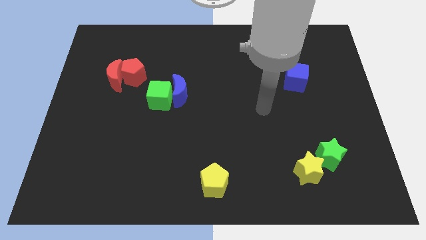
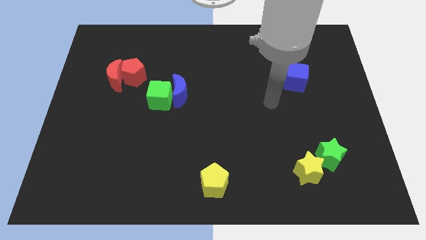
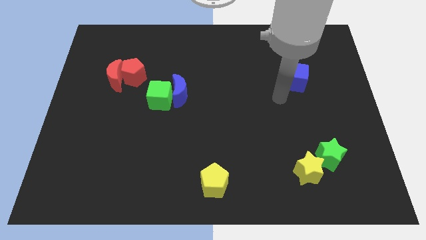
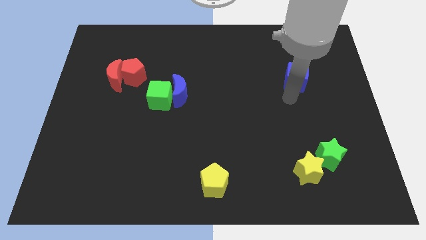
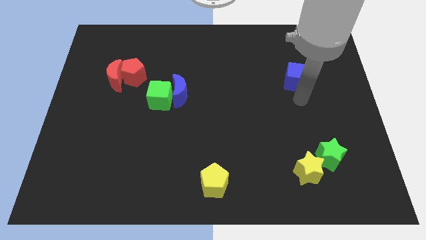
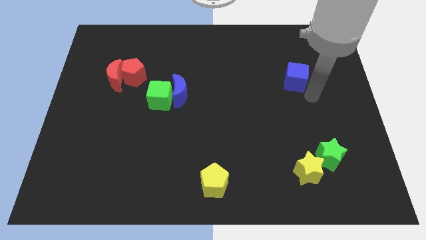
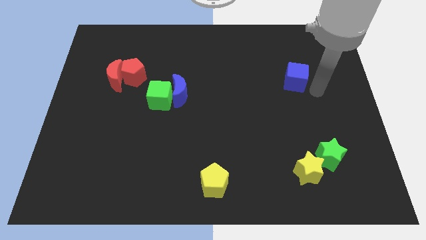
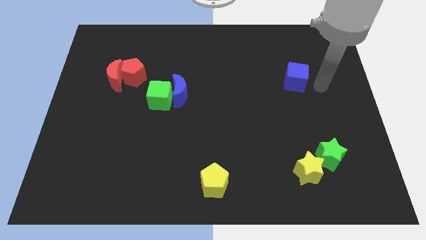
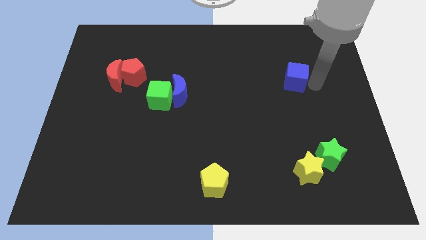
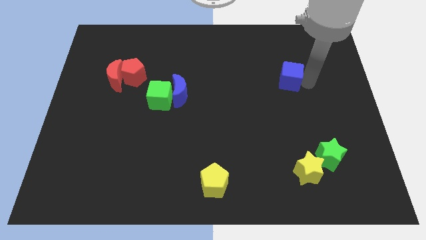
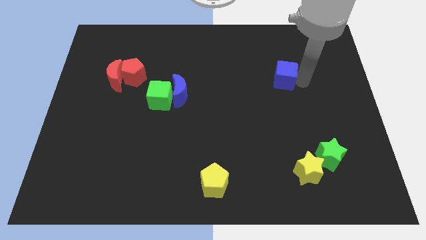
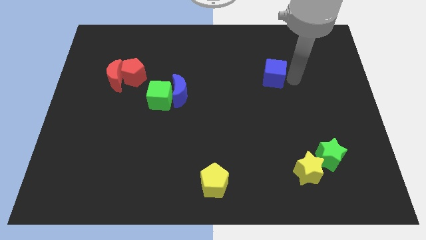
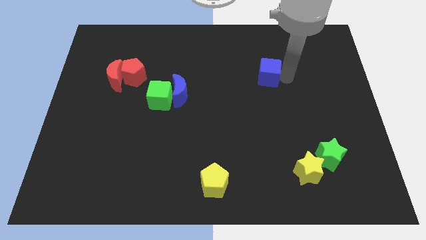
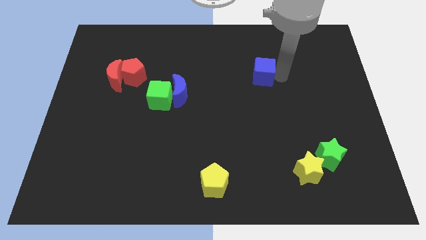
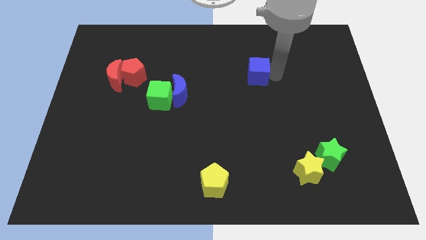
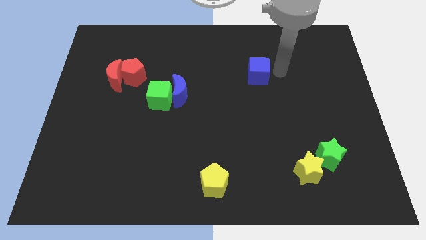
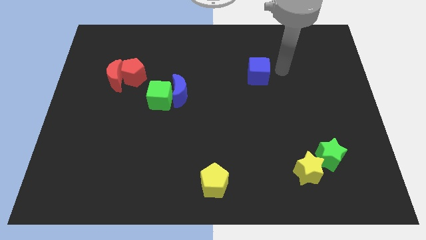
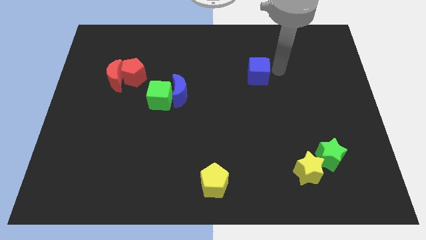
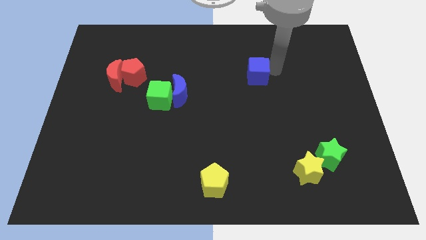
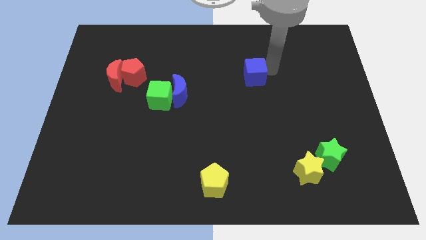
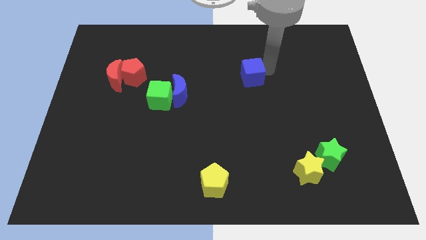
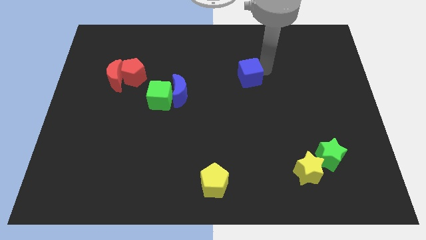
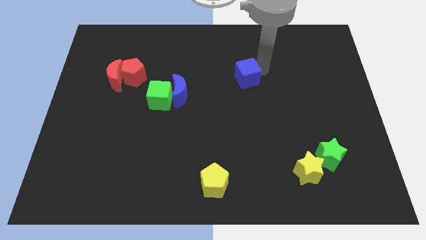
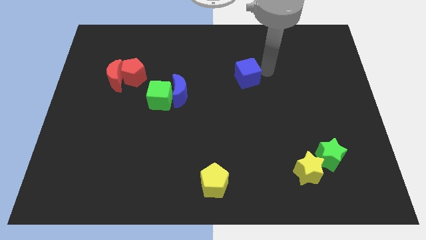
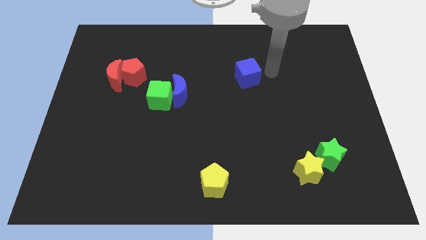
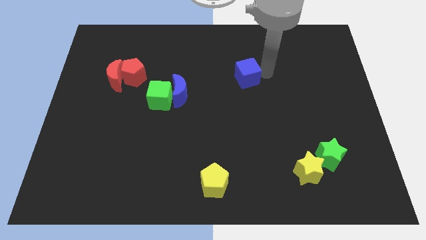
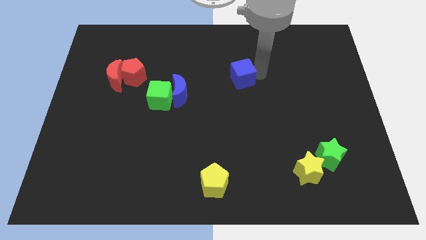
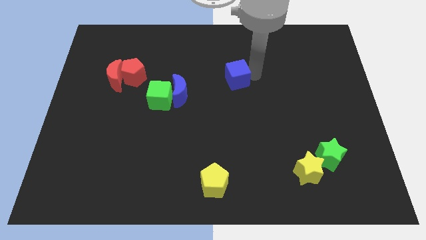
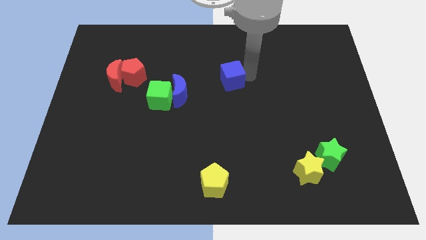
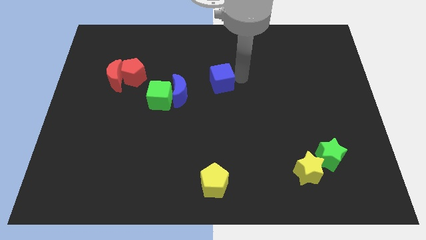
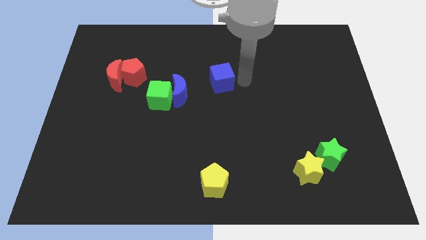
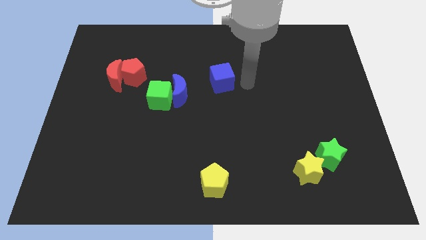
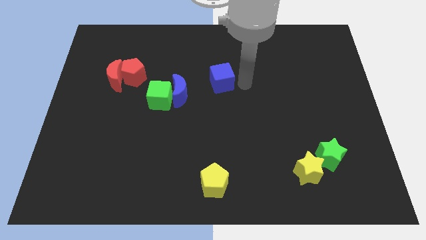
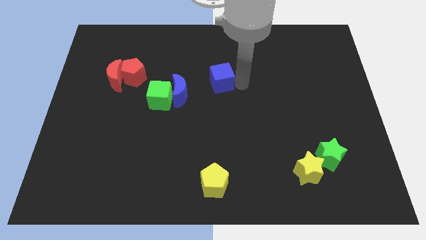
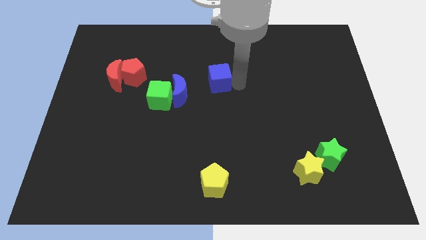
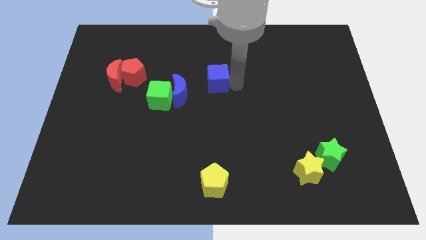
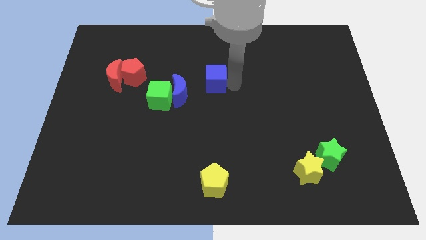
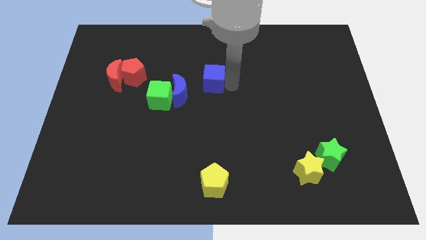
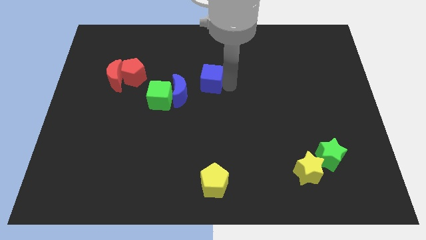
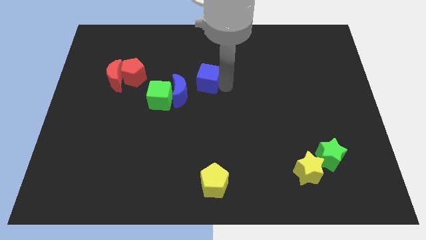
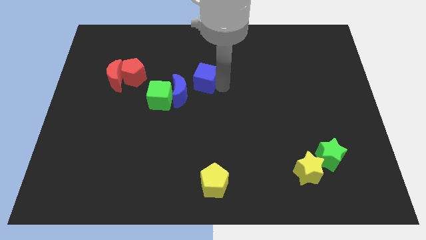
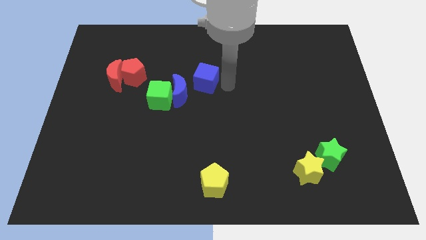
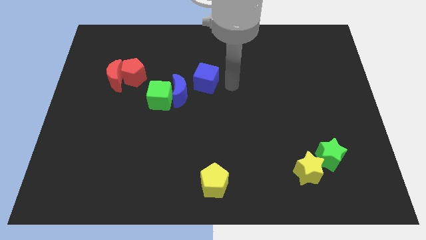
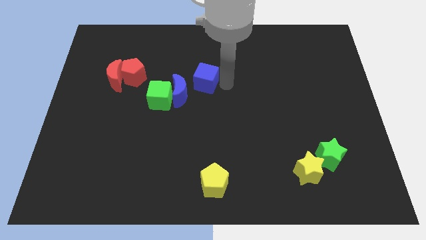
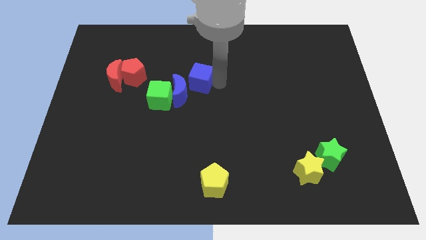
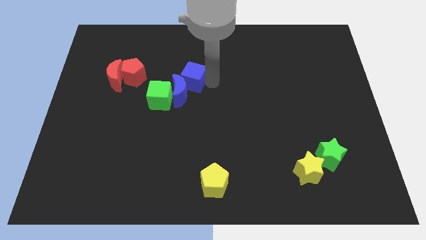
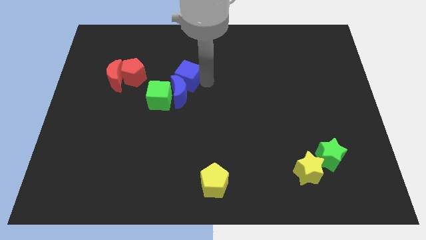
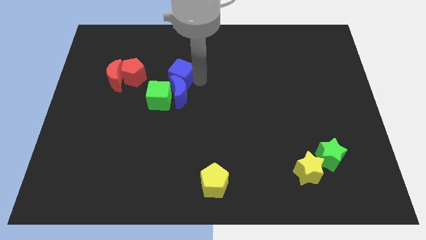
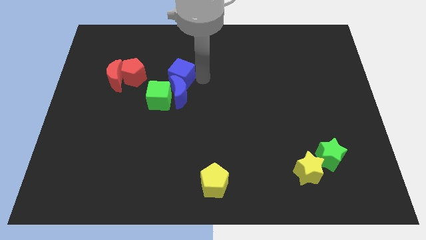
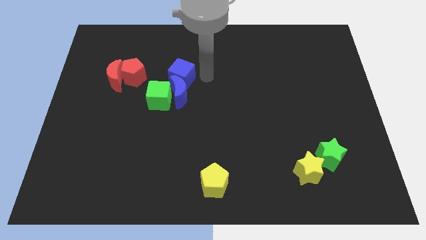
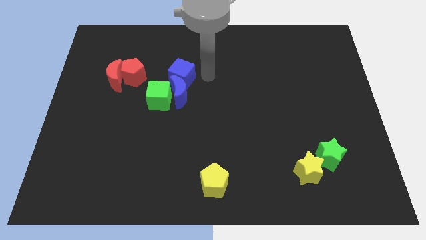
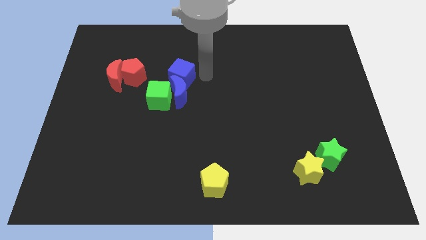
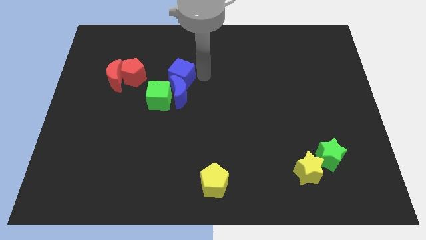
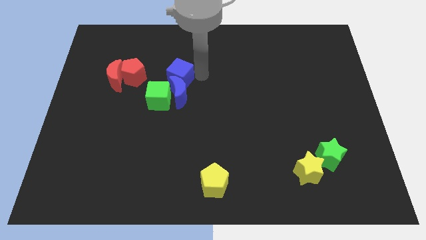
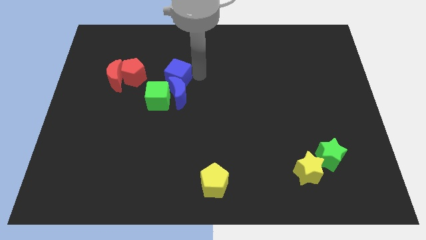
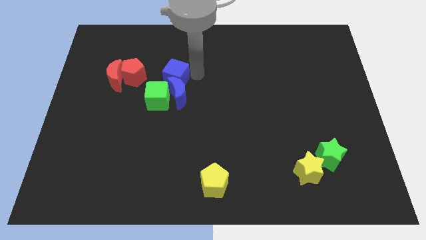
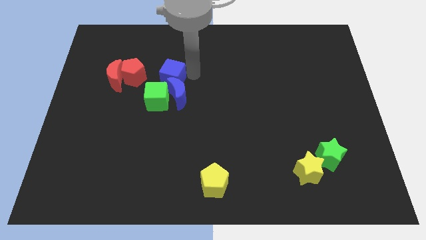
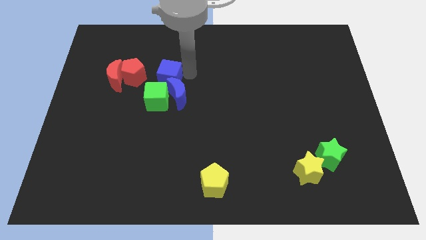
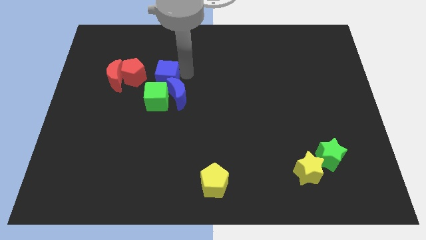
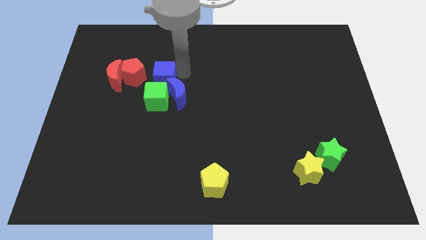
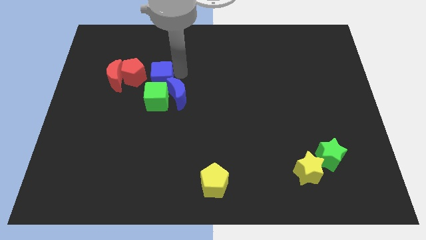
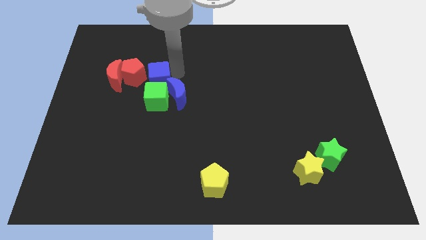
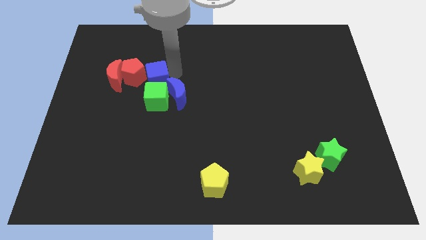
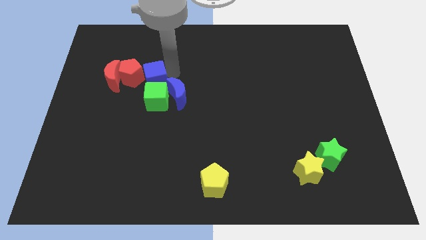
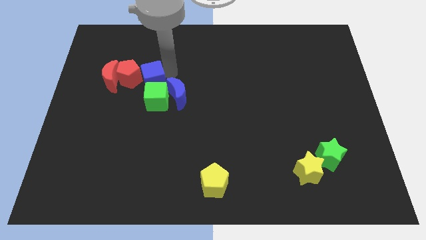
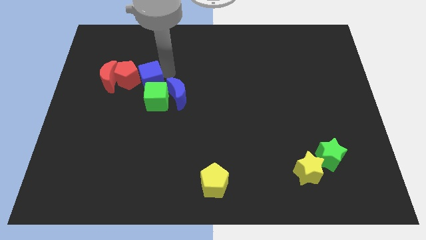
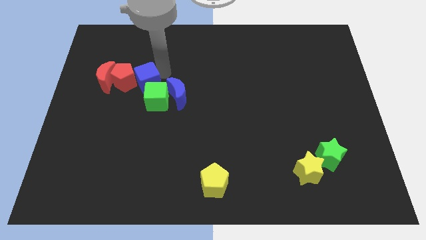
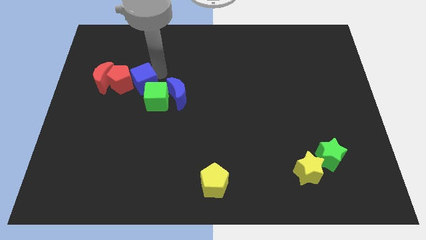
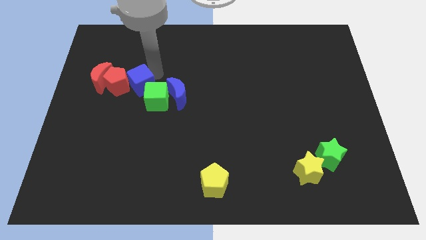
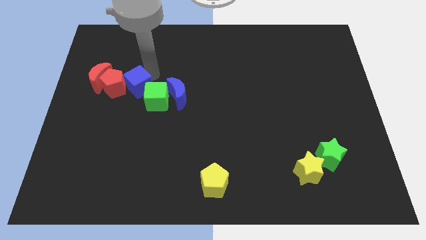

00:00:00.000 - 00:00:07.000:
put the blue cube to the left side of the green cube

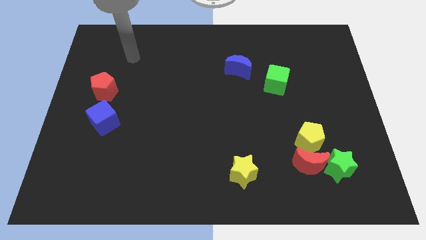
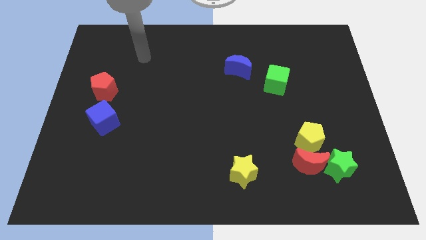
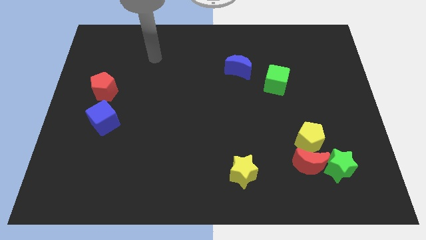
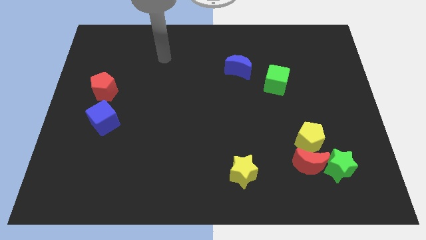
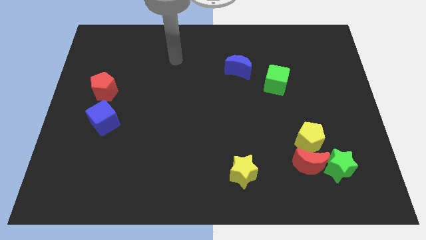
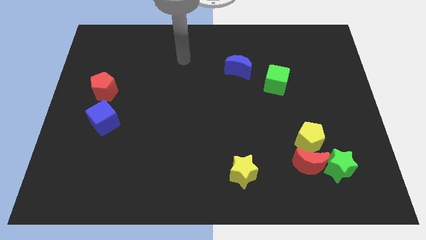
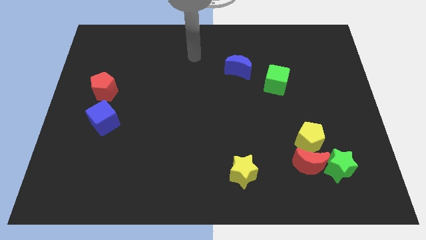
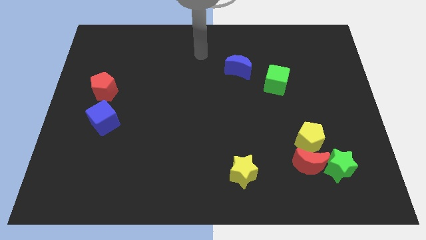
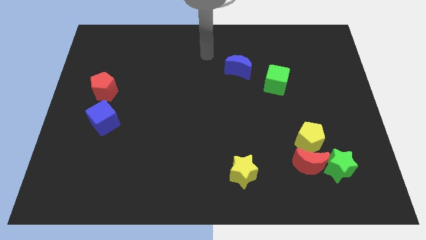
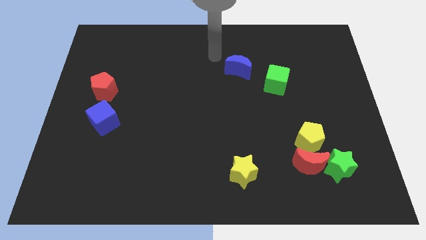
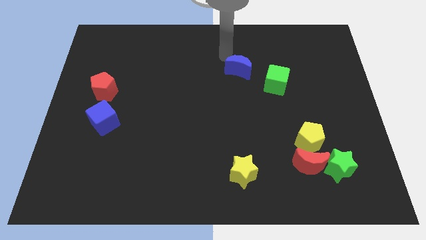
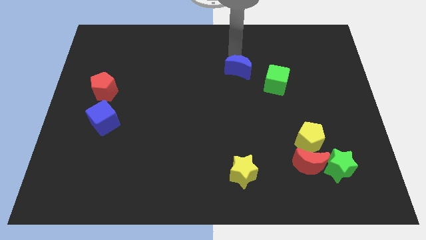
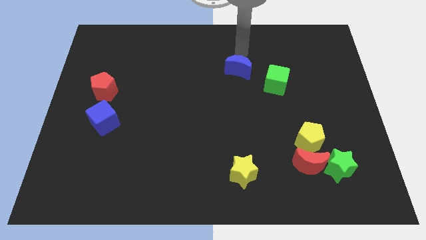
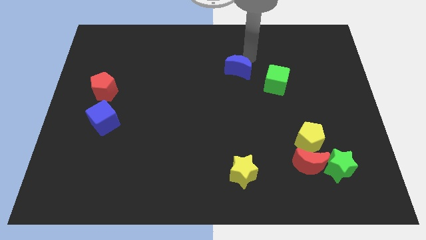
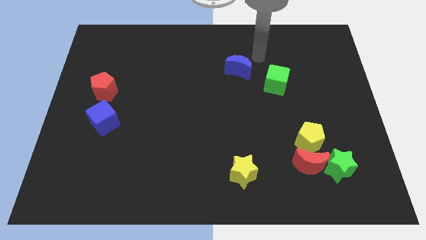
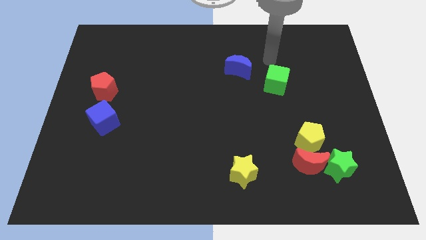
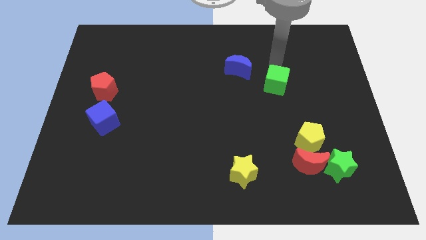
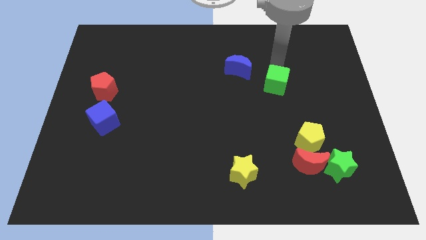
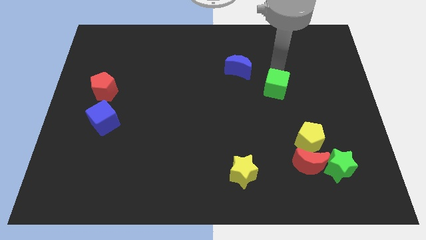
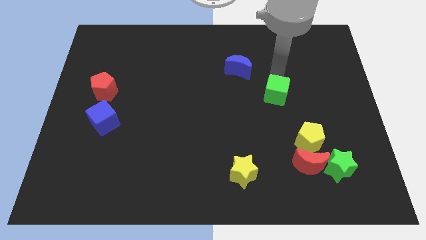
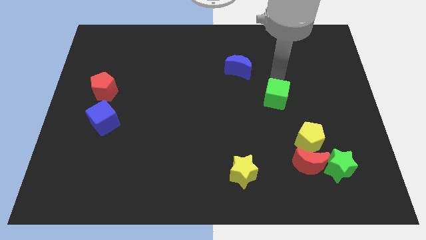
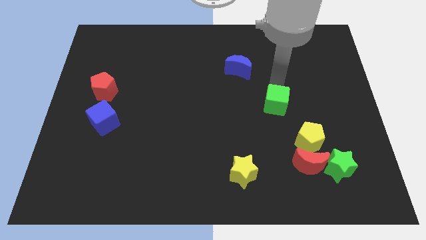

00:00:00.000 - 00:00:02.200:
push the green cube to the top left of the yellow pentagon
